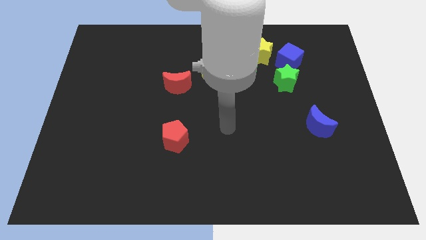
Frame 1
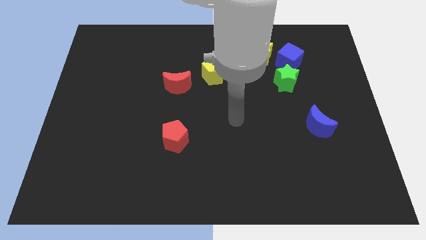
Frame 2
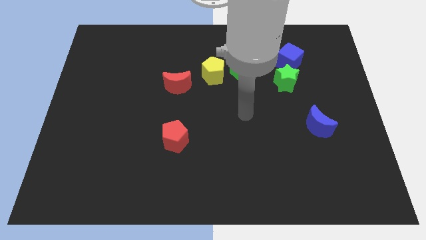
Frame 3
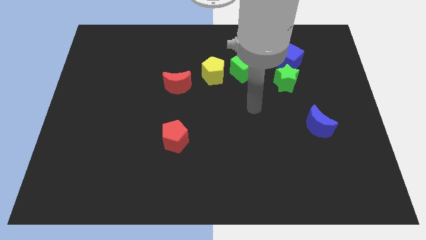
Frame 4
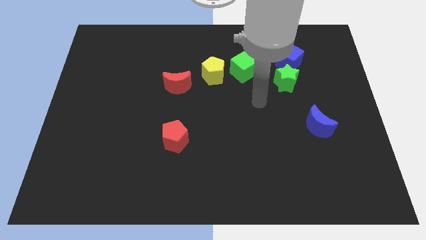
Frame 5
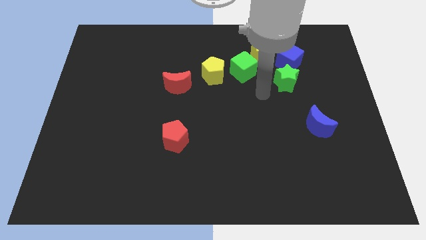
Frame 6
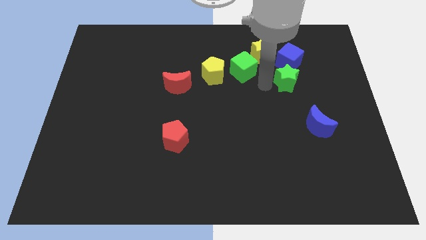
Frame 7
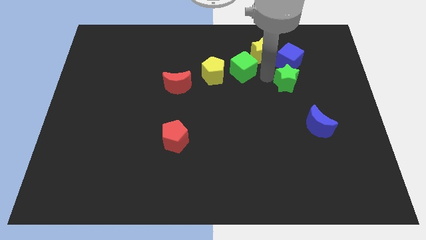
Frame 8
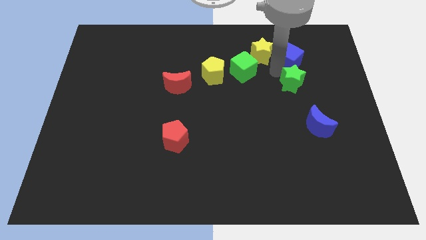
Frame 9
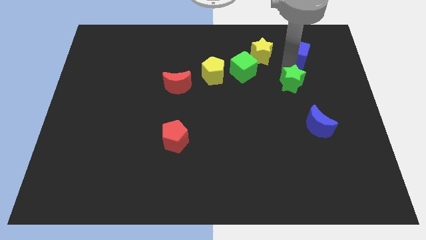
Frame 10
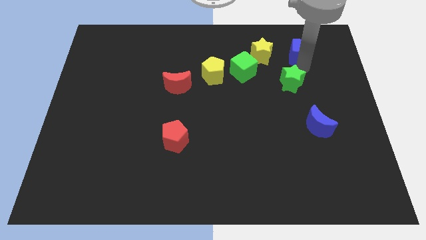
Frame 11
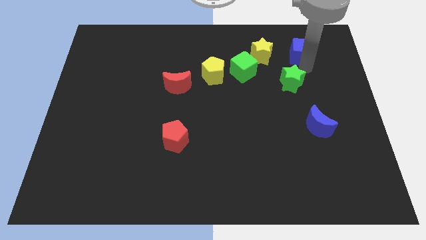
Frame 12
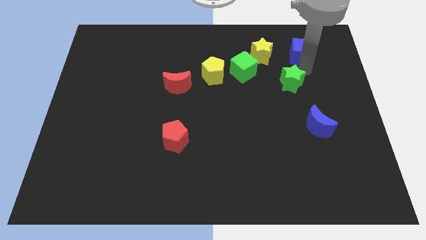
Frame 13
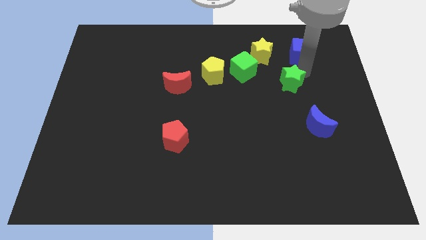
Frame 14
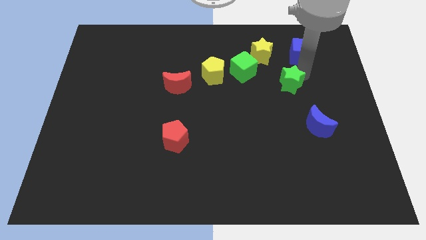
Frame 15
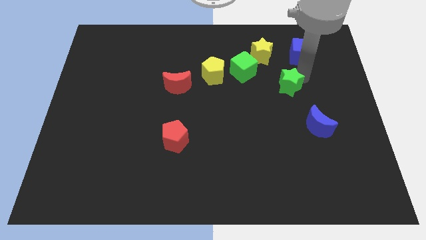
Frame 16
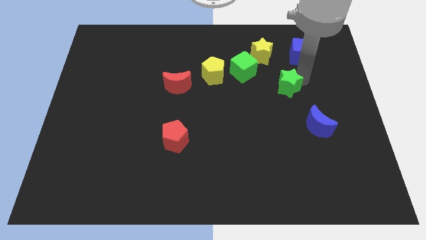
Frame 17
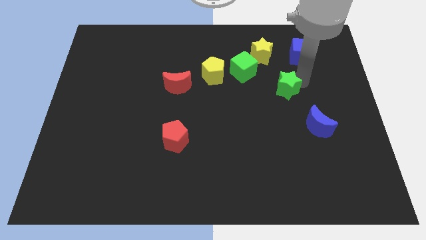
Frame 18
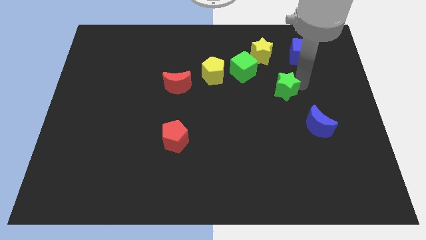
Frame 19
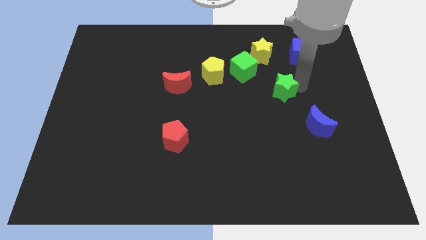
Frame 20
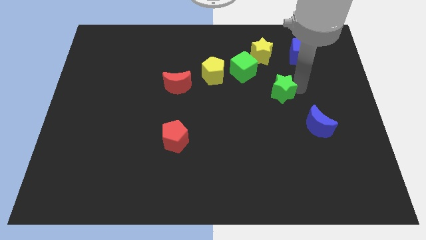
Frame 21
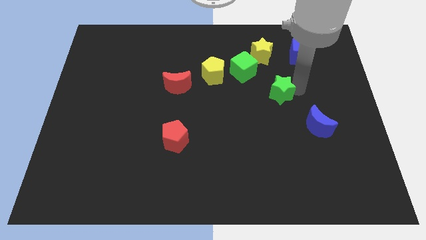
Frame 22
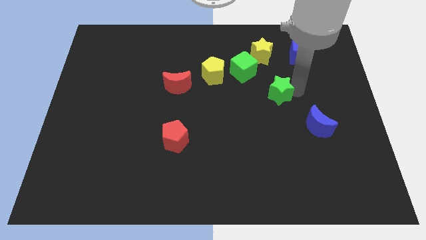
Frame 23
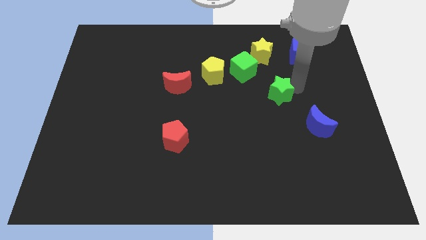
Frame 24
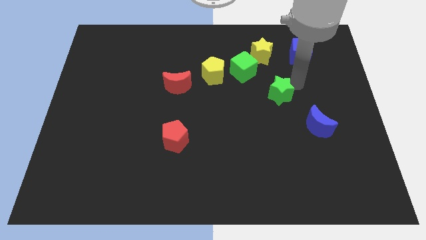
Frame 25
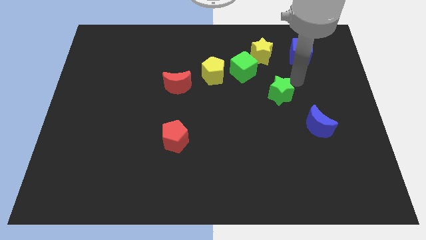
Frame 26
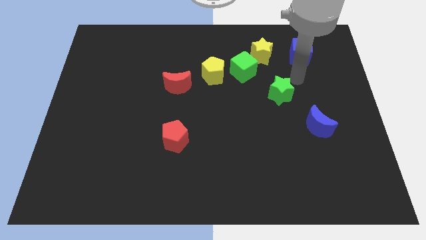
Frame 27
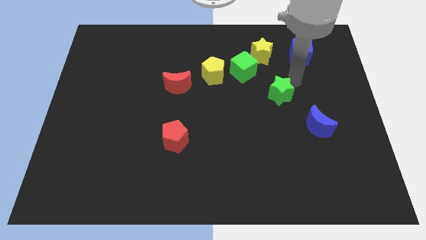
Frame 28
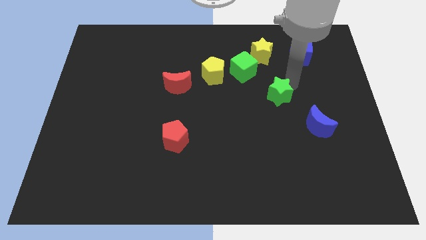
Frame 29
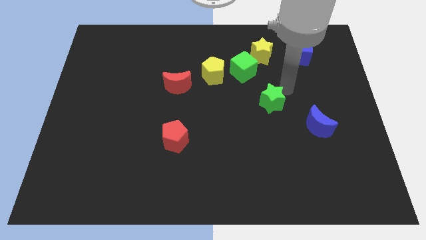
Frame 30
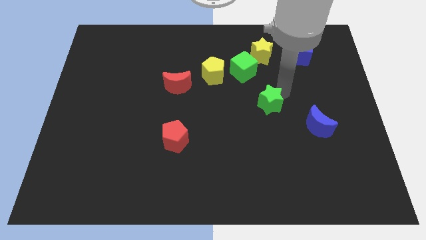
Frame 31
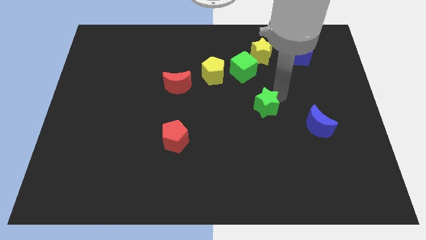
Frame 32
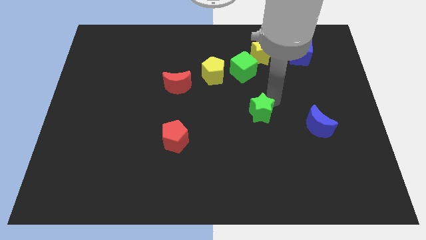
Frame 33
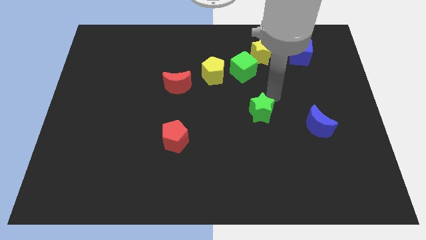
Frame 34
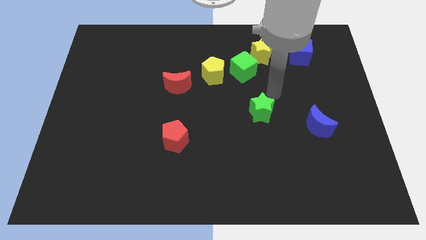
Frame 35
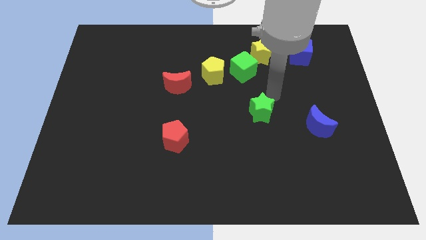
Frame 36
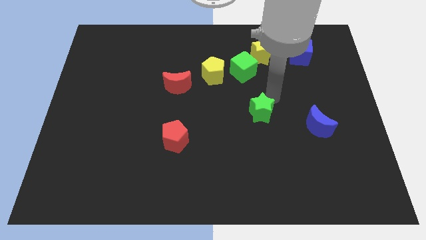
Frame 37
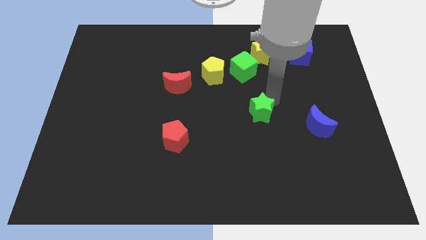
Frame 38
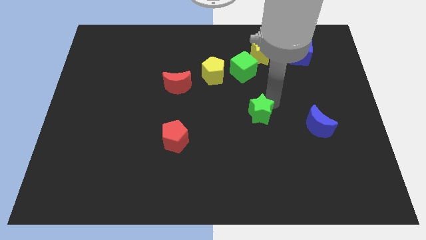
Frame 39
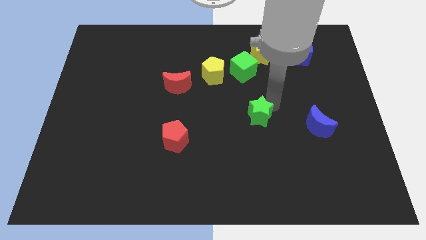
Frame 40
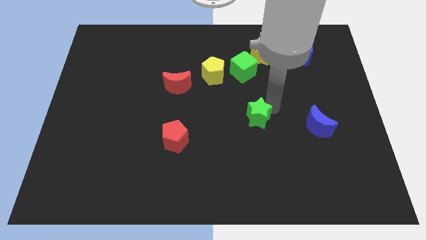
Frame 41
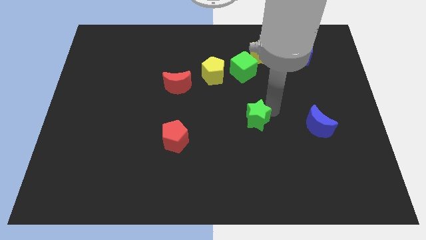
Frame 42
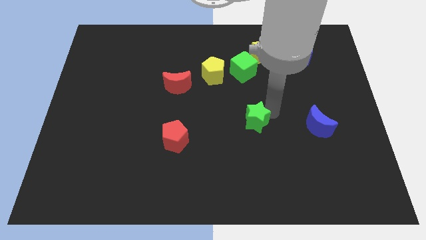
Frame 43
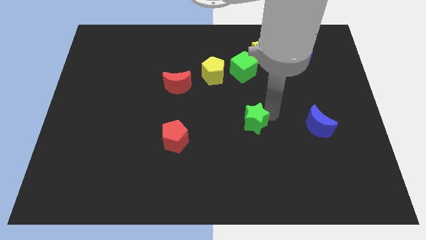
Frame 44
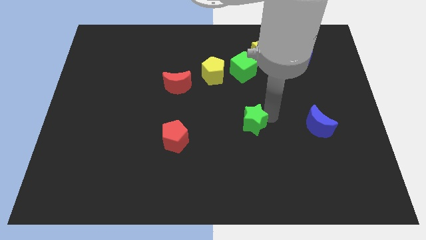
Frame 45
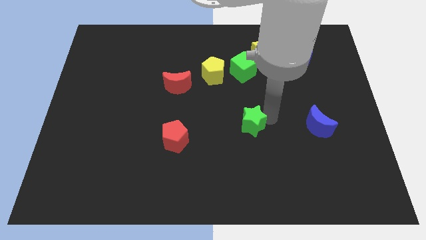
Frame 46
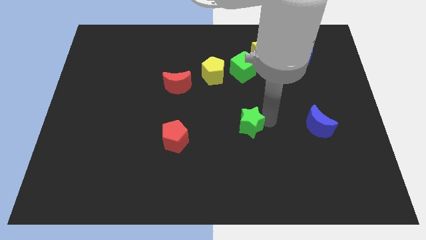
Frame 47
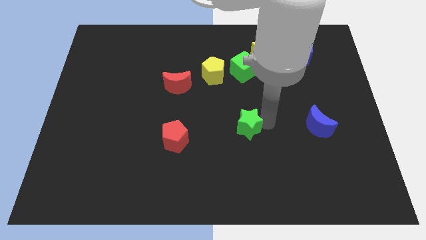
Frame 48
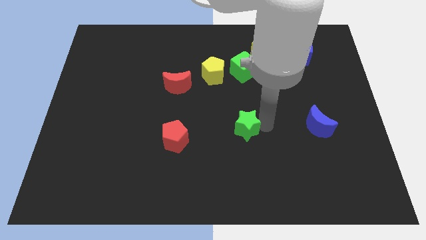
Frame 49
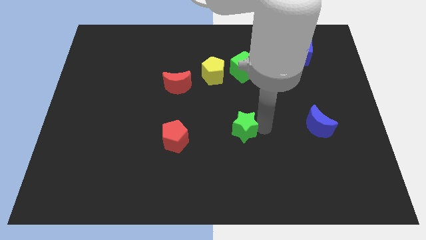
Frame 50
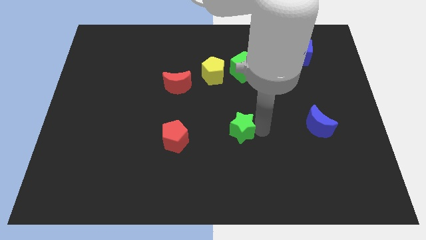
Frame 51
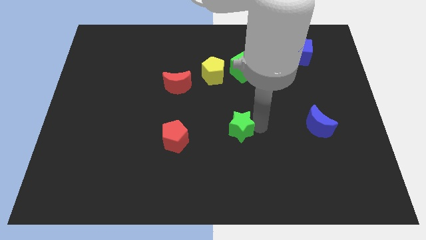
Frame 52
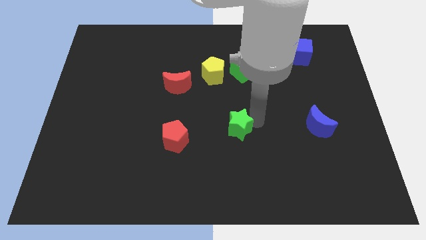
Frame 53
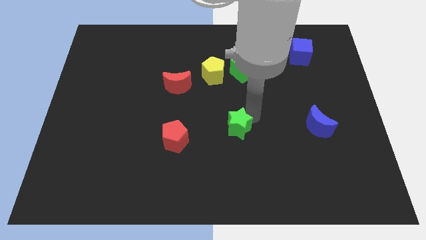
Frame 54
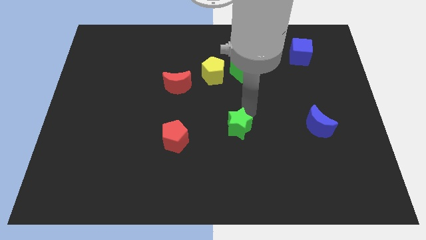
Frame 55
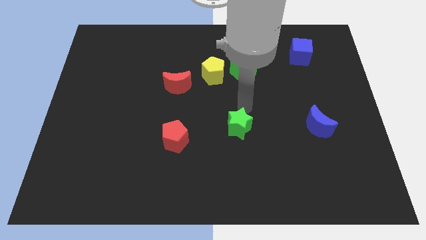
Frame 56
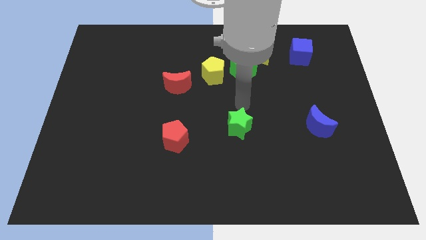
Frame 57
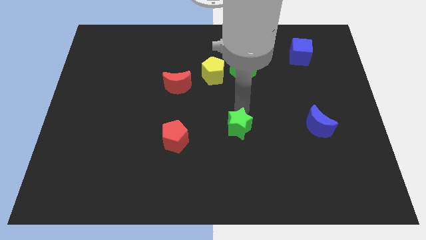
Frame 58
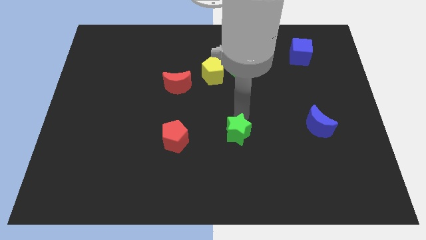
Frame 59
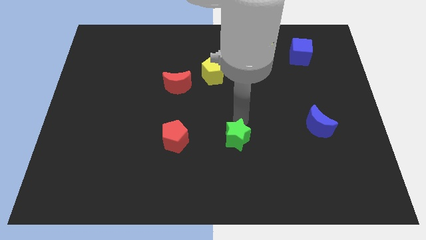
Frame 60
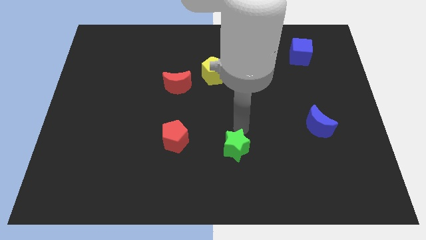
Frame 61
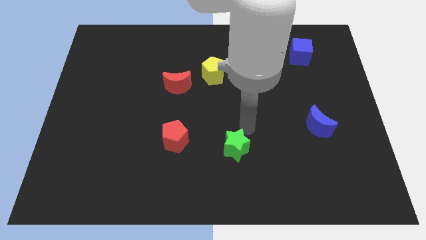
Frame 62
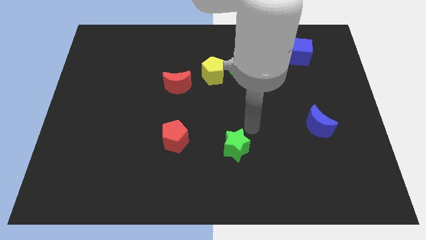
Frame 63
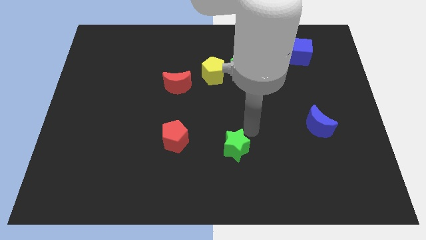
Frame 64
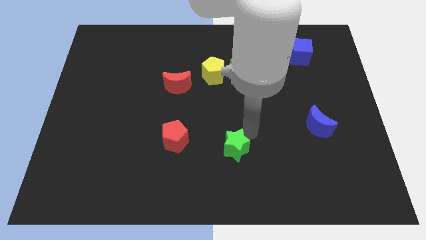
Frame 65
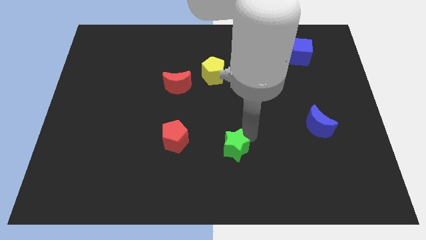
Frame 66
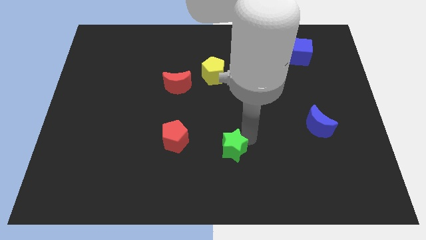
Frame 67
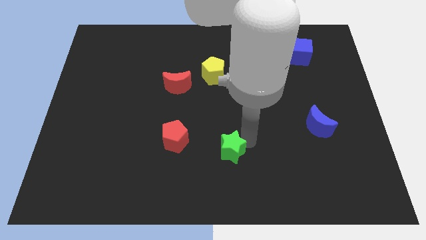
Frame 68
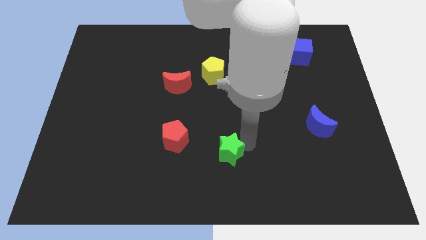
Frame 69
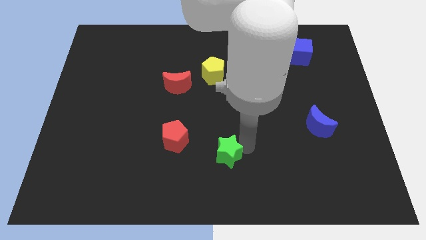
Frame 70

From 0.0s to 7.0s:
push the green star to the bottom side
